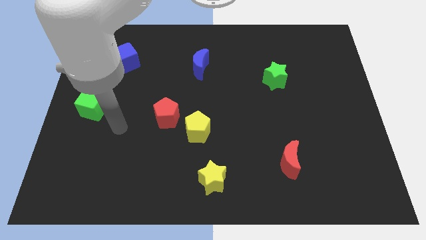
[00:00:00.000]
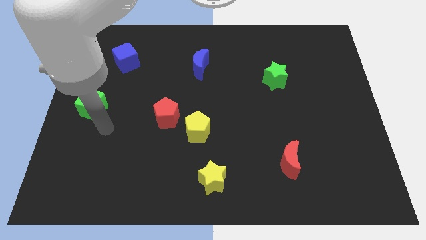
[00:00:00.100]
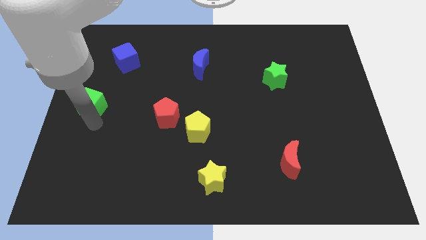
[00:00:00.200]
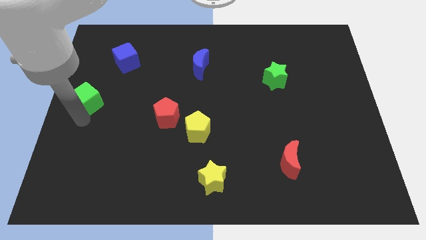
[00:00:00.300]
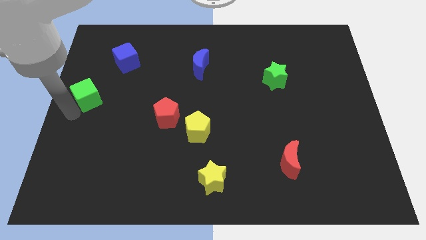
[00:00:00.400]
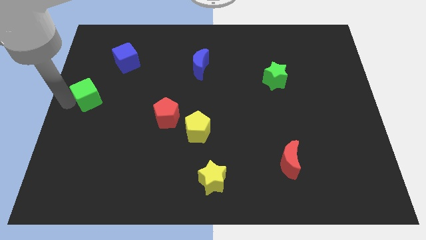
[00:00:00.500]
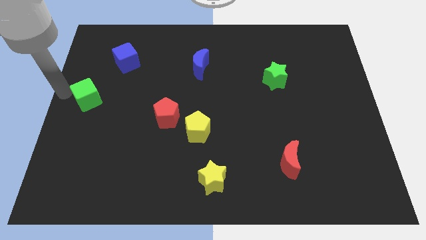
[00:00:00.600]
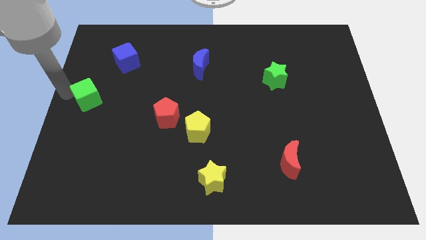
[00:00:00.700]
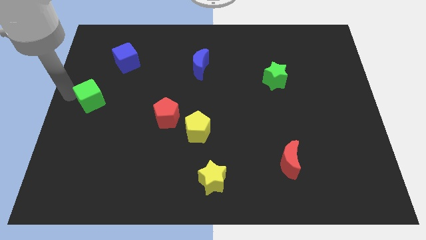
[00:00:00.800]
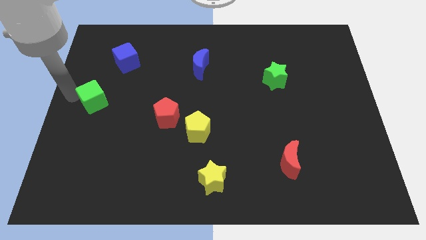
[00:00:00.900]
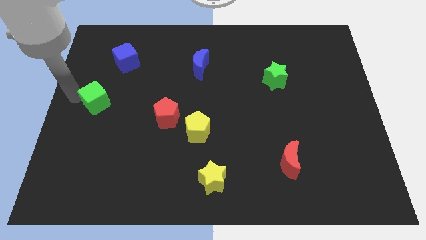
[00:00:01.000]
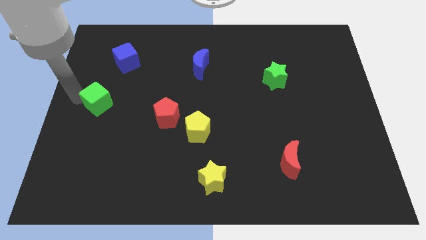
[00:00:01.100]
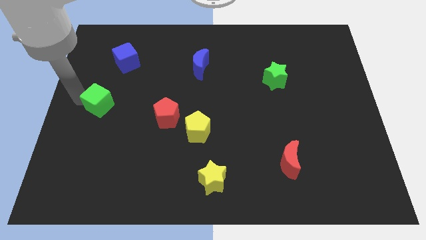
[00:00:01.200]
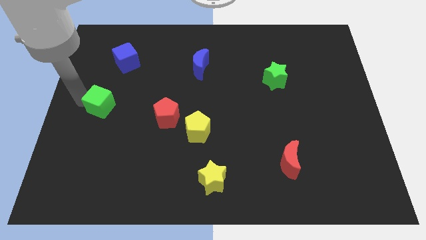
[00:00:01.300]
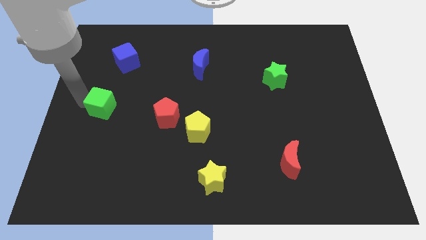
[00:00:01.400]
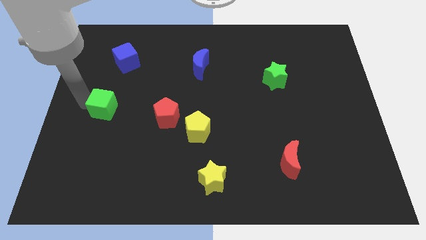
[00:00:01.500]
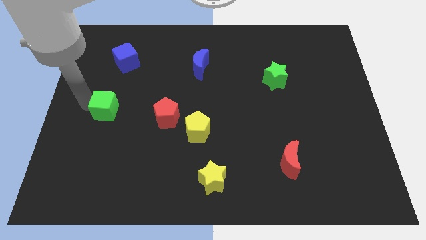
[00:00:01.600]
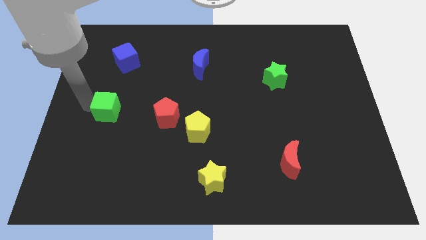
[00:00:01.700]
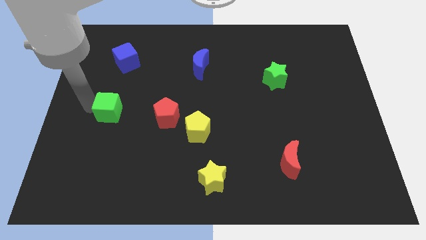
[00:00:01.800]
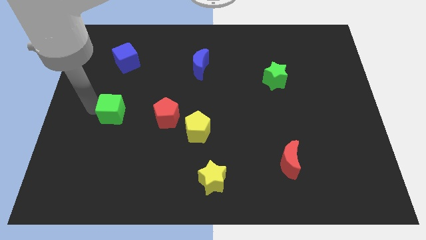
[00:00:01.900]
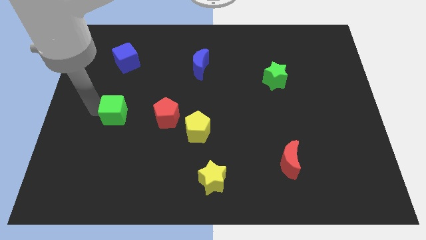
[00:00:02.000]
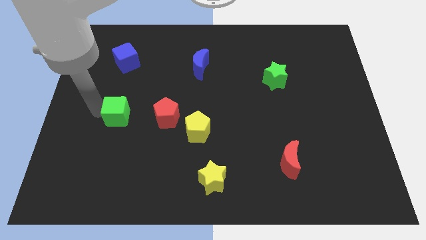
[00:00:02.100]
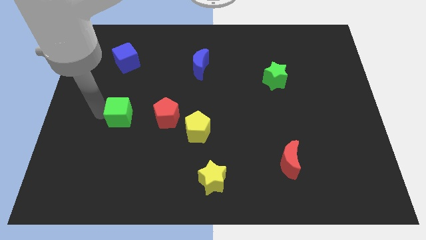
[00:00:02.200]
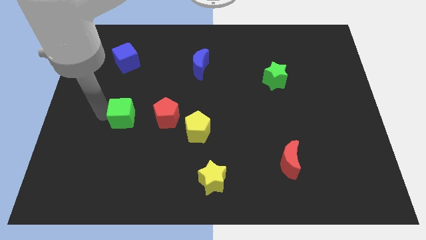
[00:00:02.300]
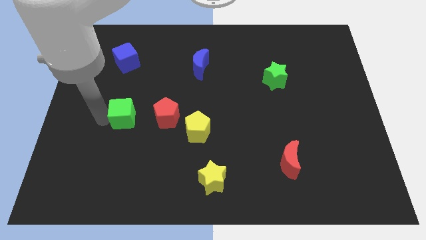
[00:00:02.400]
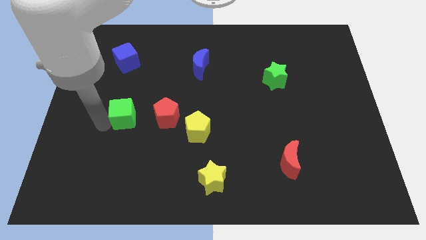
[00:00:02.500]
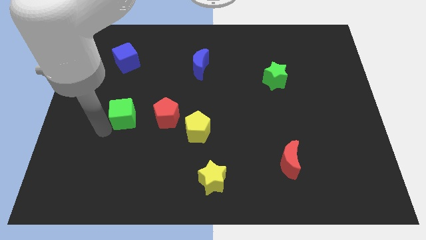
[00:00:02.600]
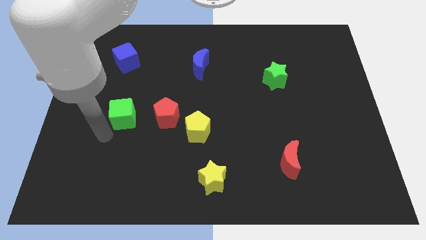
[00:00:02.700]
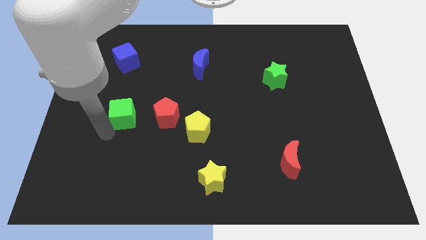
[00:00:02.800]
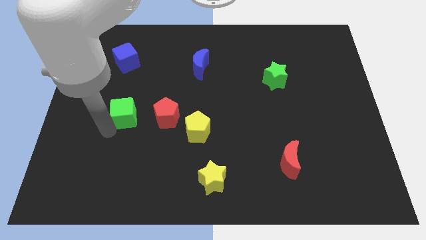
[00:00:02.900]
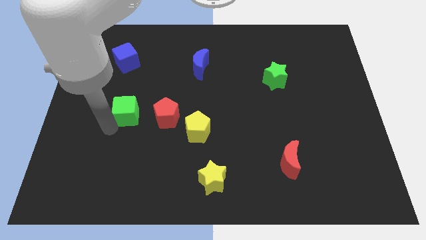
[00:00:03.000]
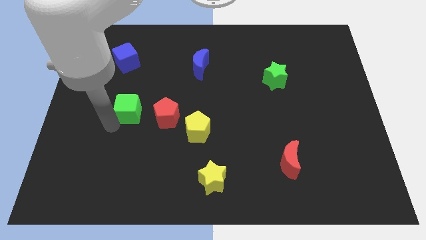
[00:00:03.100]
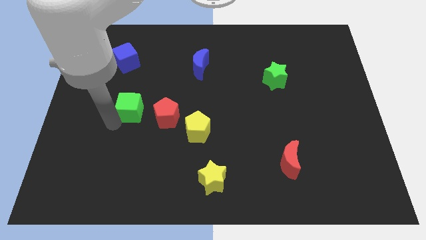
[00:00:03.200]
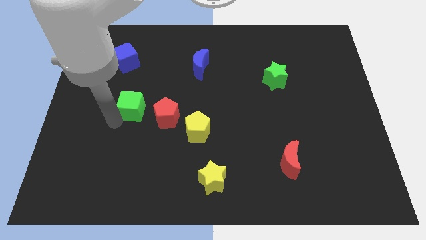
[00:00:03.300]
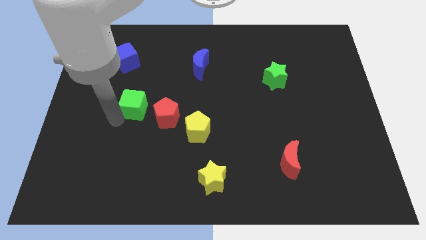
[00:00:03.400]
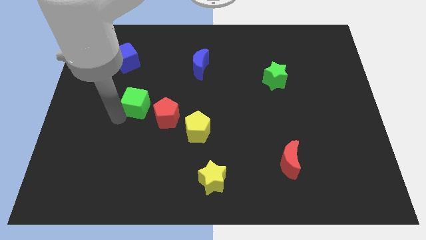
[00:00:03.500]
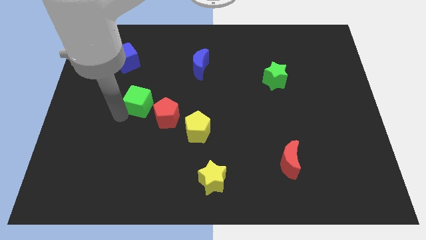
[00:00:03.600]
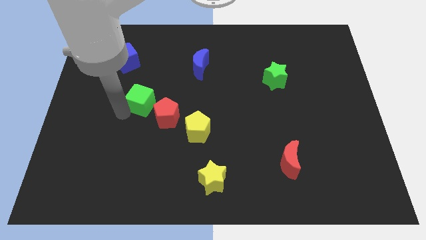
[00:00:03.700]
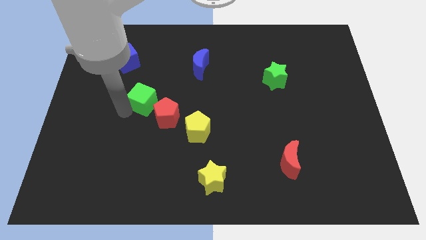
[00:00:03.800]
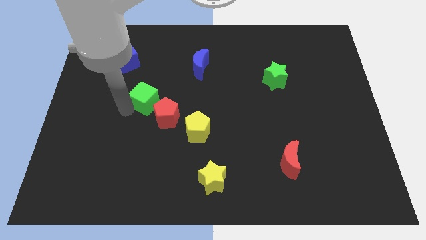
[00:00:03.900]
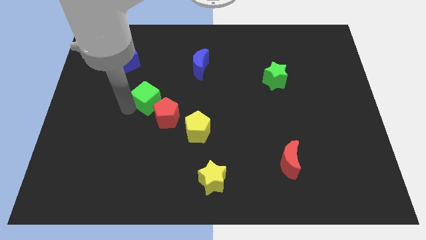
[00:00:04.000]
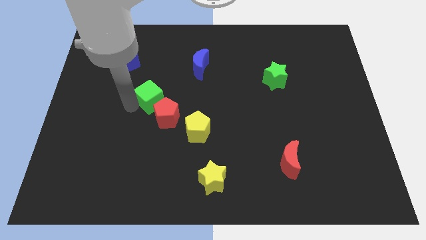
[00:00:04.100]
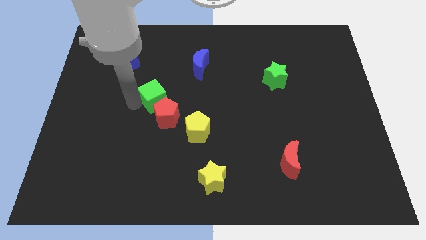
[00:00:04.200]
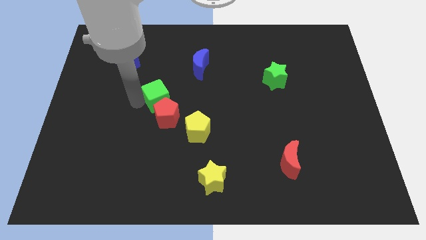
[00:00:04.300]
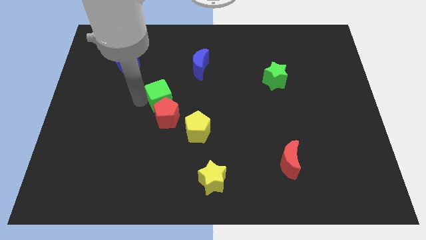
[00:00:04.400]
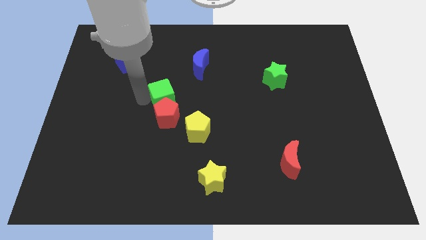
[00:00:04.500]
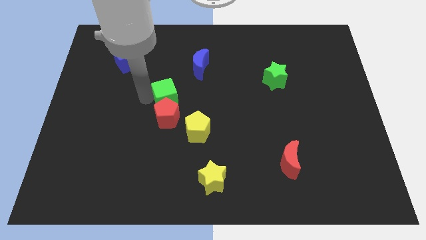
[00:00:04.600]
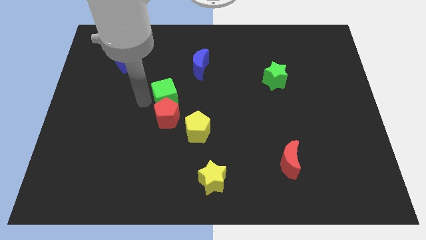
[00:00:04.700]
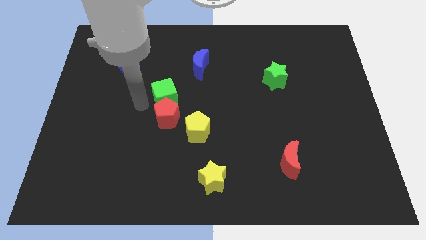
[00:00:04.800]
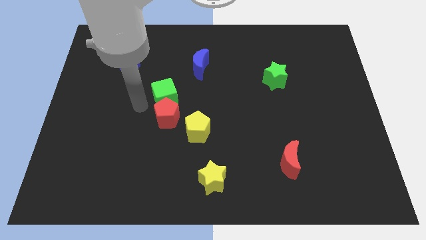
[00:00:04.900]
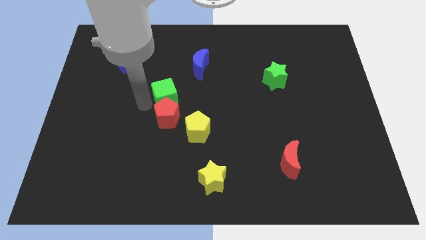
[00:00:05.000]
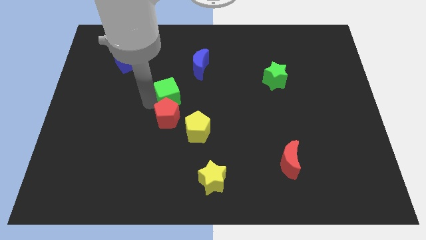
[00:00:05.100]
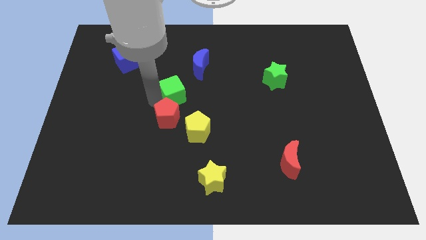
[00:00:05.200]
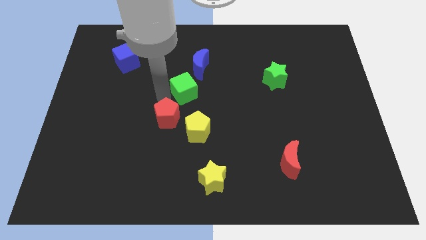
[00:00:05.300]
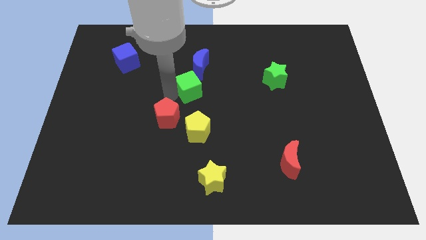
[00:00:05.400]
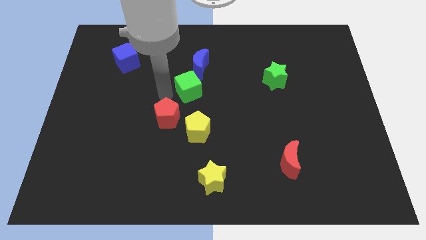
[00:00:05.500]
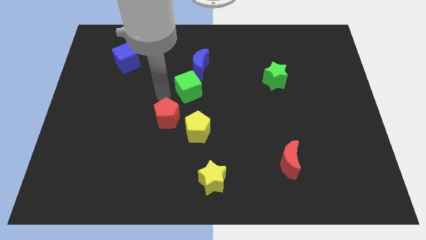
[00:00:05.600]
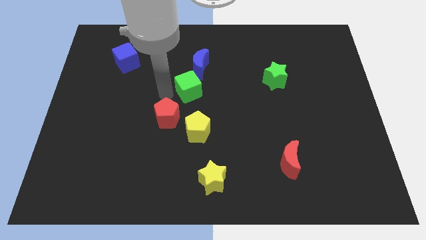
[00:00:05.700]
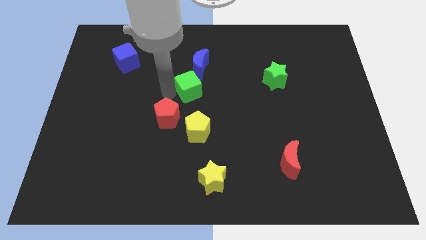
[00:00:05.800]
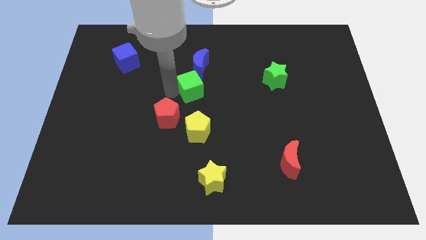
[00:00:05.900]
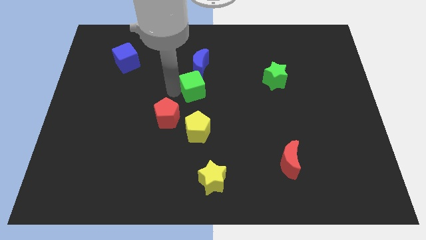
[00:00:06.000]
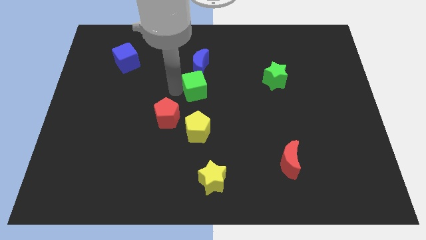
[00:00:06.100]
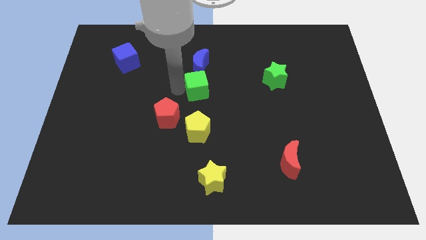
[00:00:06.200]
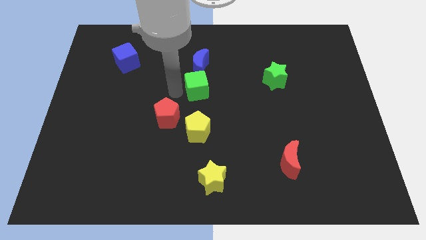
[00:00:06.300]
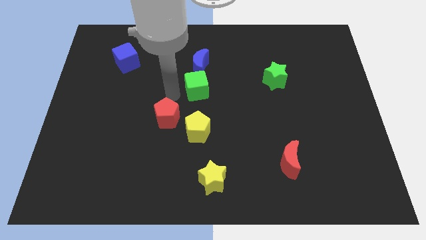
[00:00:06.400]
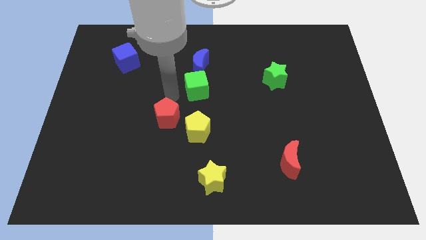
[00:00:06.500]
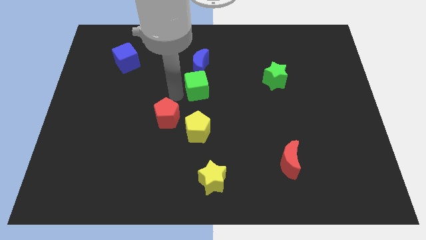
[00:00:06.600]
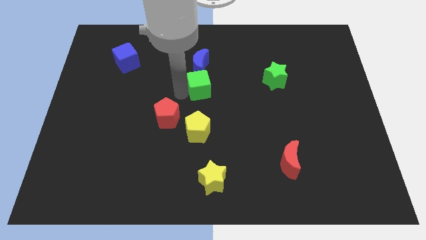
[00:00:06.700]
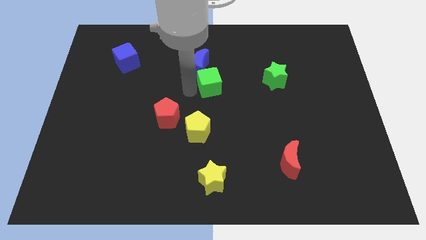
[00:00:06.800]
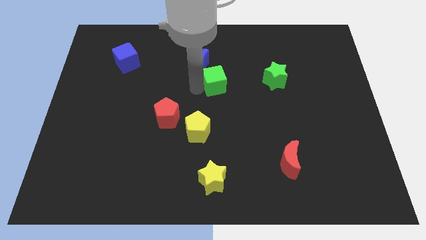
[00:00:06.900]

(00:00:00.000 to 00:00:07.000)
move the green cube left of the green star
